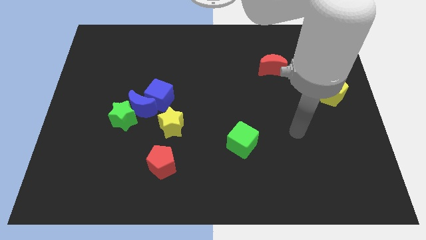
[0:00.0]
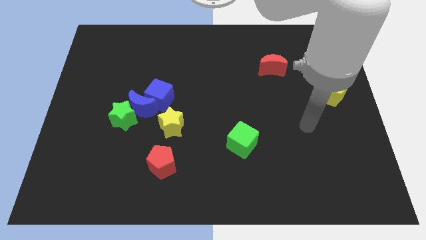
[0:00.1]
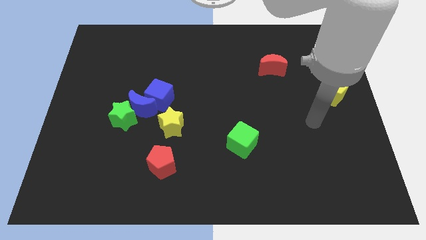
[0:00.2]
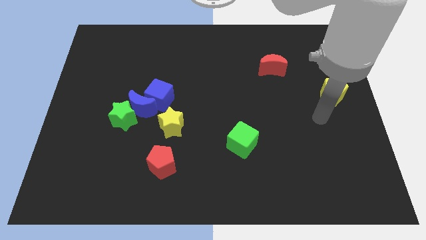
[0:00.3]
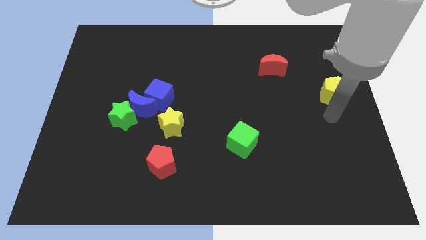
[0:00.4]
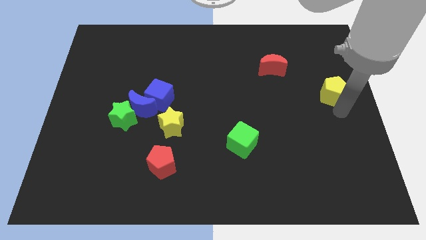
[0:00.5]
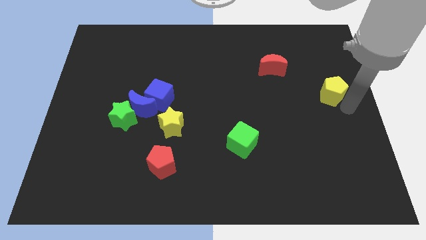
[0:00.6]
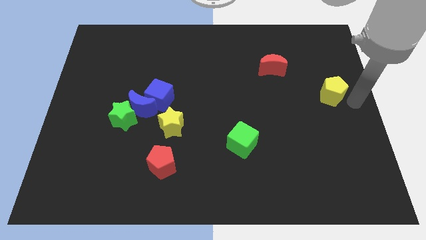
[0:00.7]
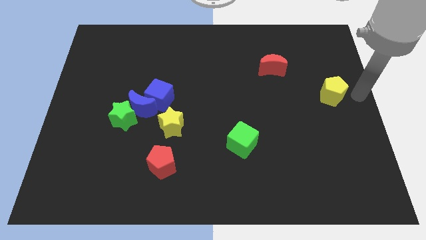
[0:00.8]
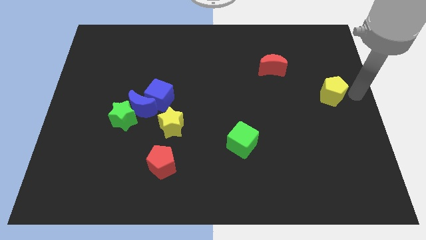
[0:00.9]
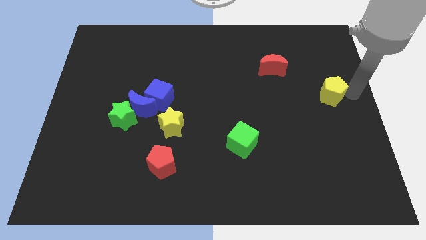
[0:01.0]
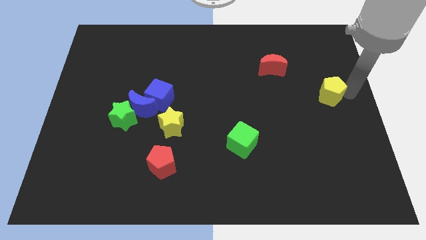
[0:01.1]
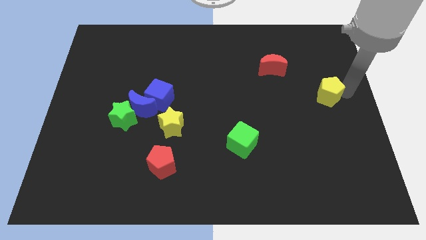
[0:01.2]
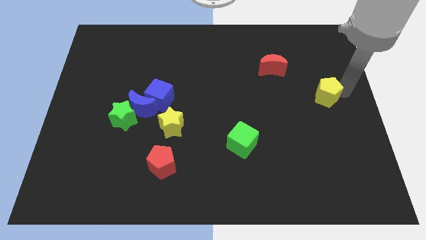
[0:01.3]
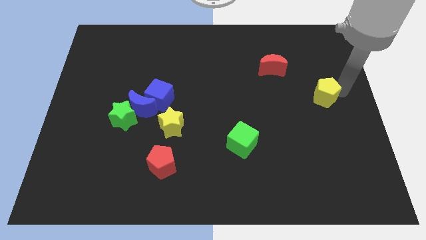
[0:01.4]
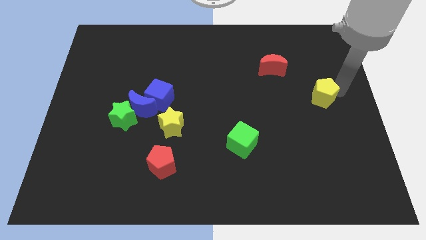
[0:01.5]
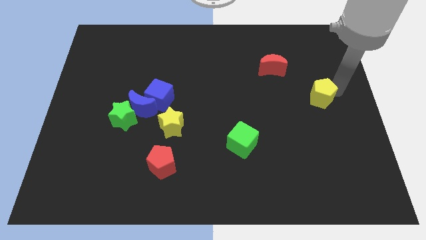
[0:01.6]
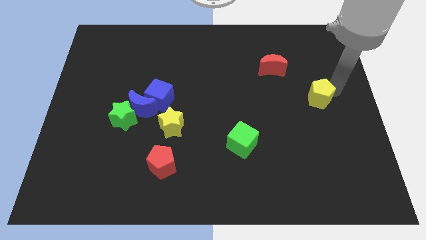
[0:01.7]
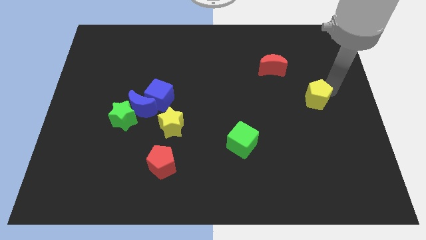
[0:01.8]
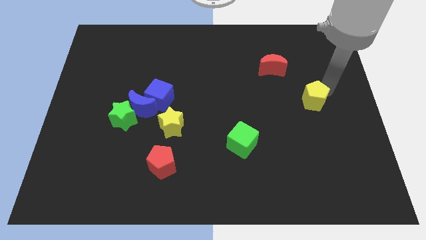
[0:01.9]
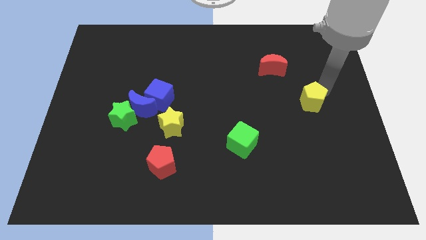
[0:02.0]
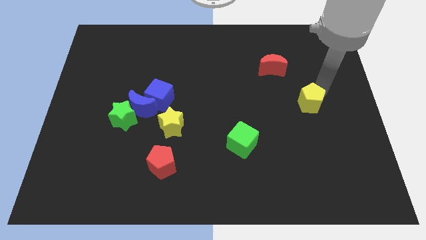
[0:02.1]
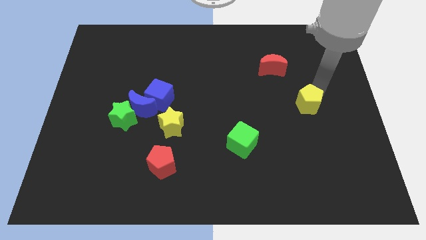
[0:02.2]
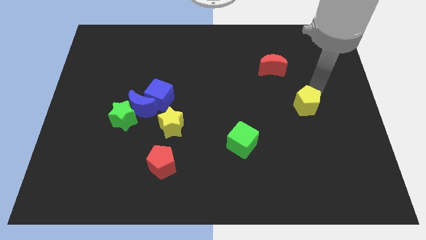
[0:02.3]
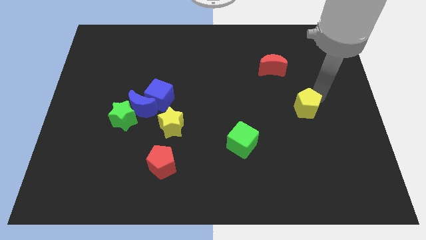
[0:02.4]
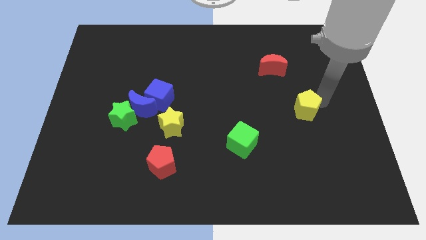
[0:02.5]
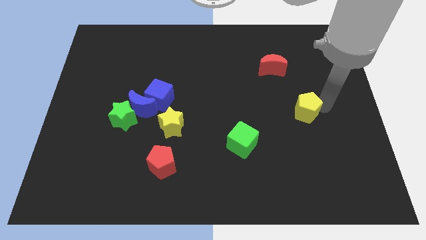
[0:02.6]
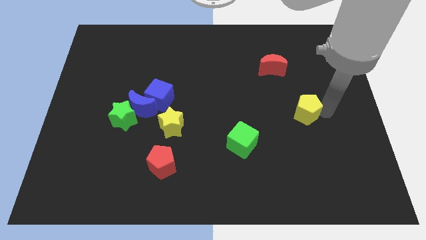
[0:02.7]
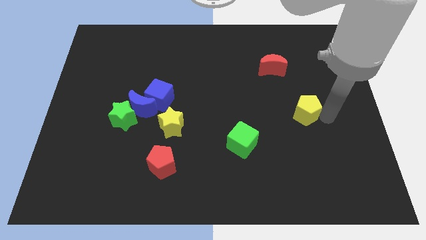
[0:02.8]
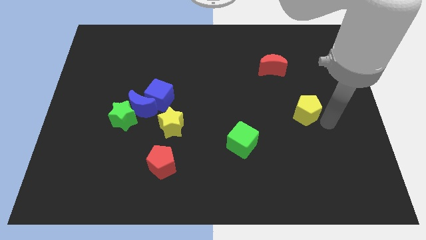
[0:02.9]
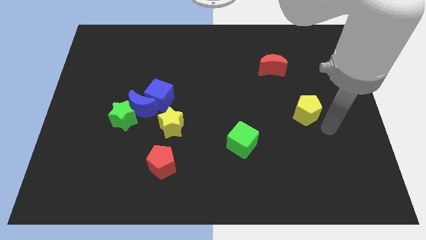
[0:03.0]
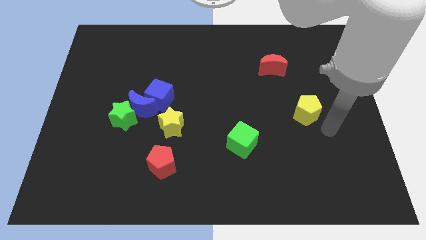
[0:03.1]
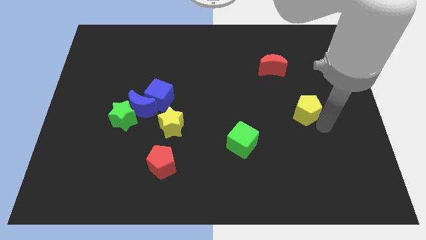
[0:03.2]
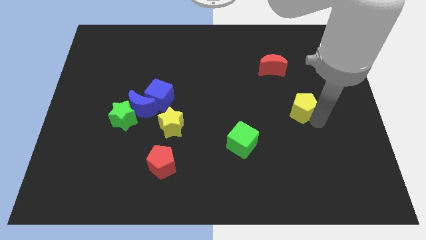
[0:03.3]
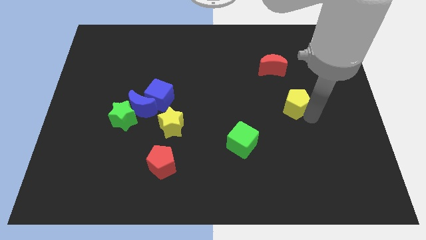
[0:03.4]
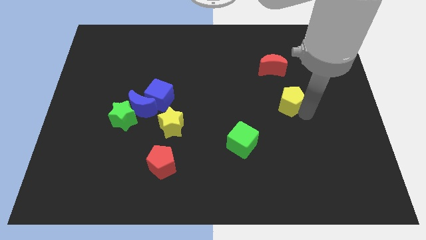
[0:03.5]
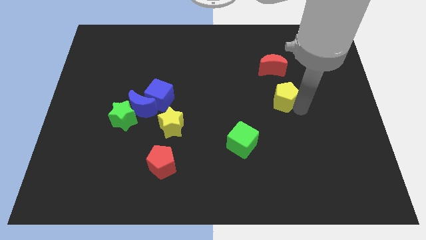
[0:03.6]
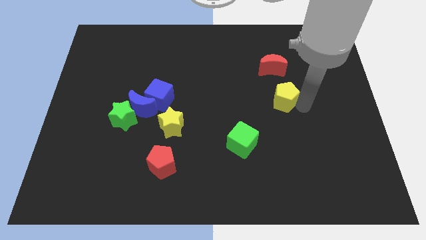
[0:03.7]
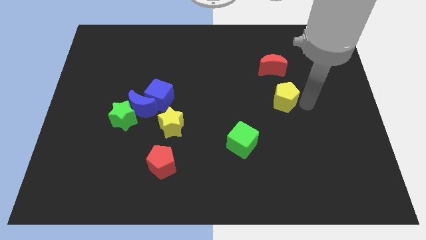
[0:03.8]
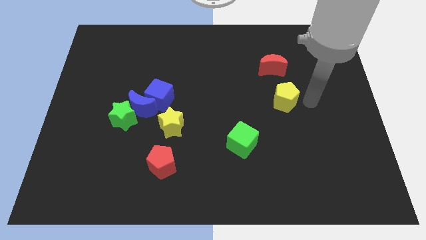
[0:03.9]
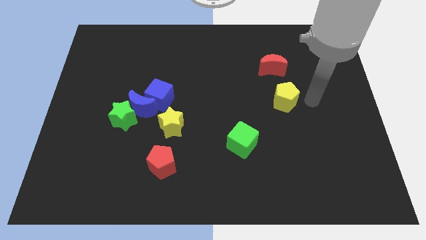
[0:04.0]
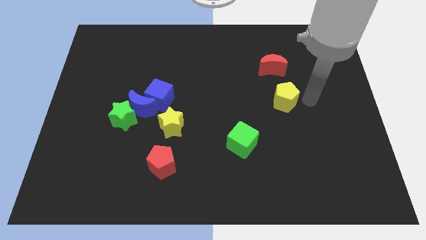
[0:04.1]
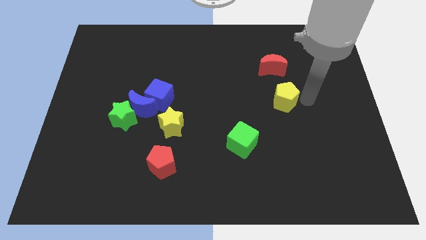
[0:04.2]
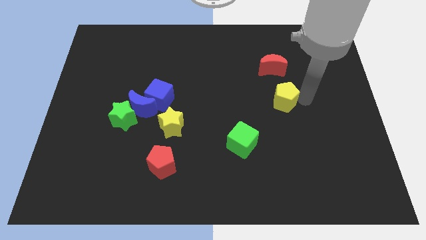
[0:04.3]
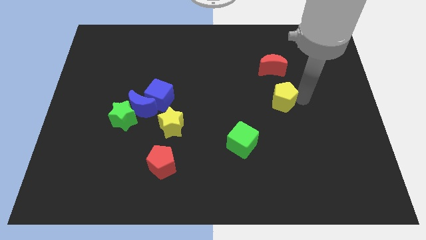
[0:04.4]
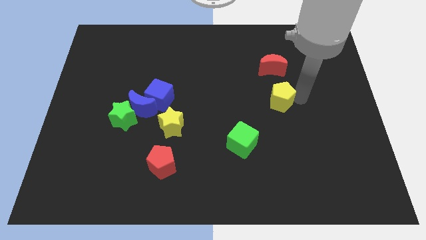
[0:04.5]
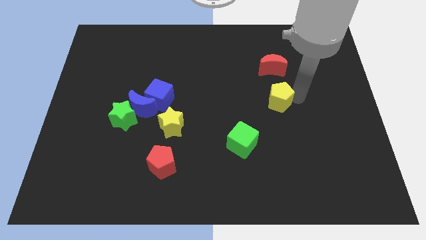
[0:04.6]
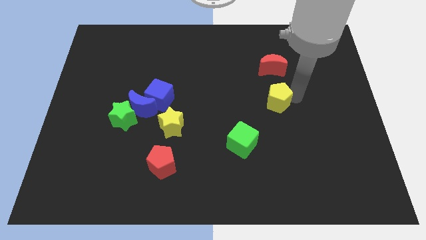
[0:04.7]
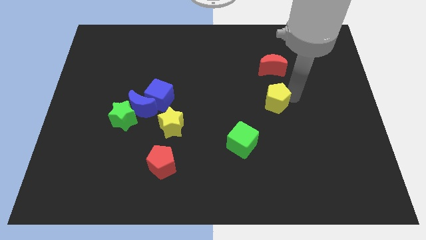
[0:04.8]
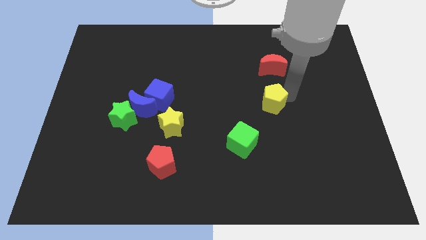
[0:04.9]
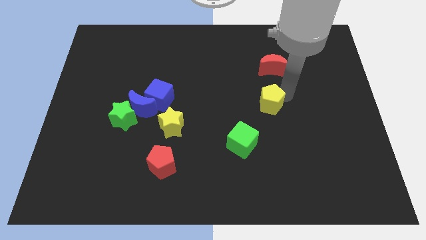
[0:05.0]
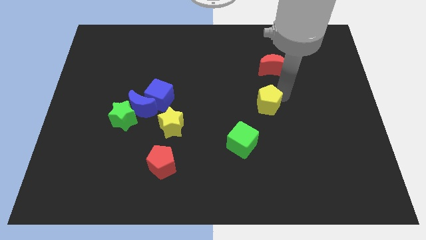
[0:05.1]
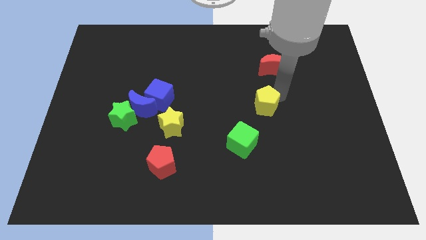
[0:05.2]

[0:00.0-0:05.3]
slide the yellow pentagon to the center of the board

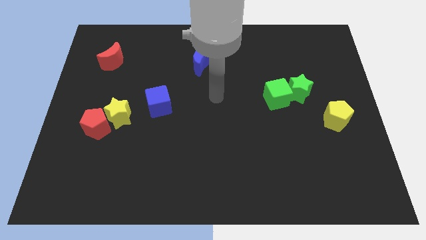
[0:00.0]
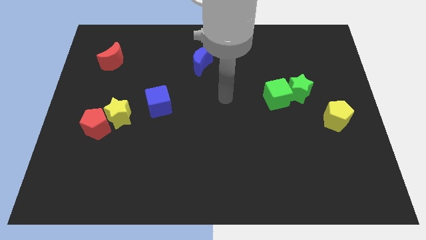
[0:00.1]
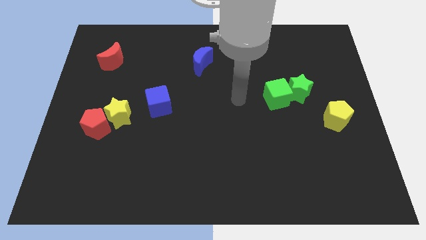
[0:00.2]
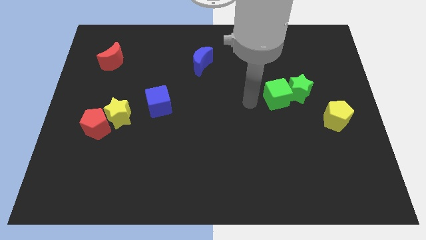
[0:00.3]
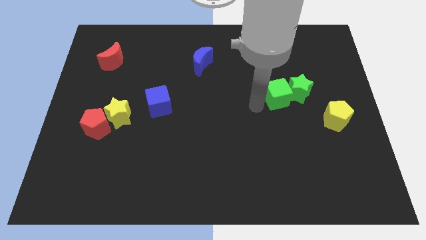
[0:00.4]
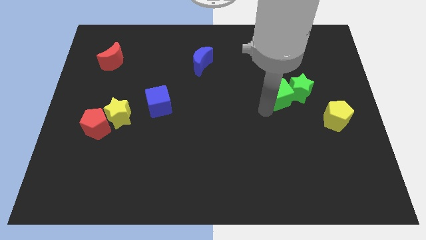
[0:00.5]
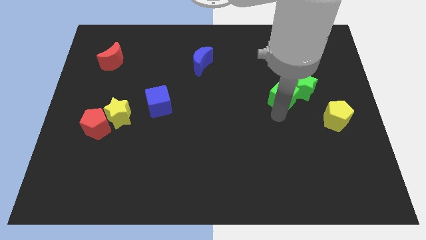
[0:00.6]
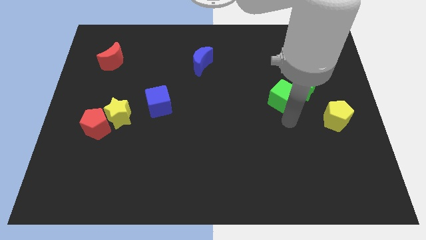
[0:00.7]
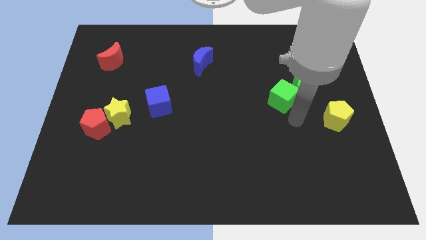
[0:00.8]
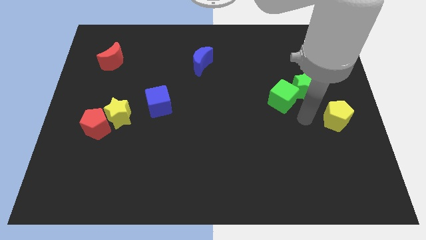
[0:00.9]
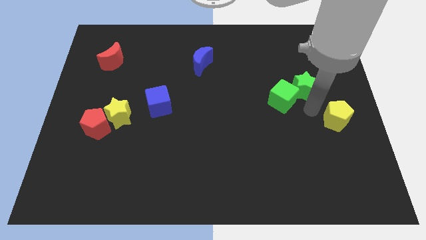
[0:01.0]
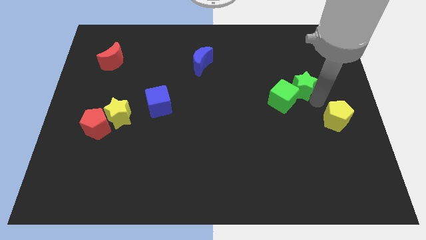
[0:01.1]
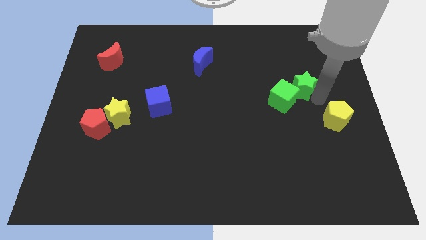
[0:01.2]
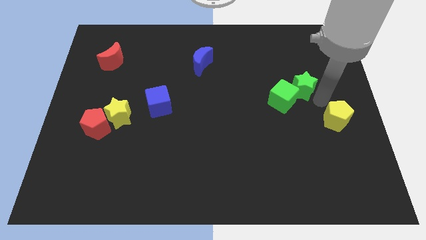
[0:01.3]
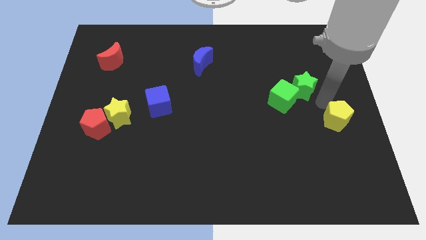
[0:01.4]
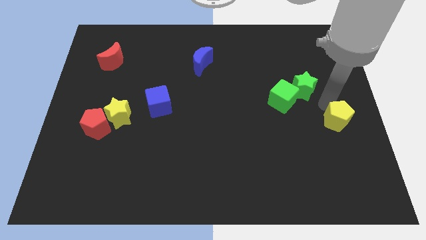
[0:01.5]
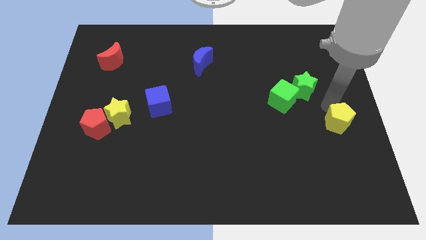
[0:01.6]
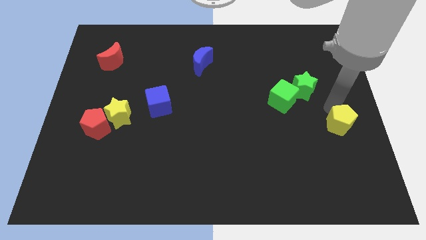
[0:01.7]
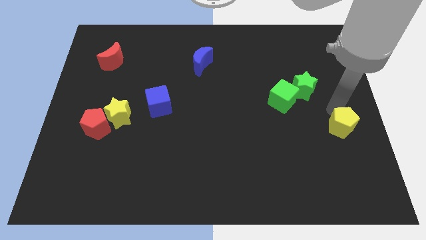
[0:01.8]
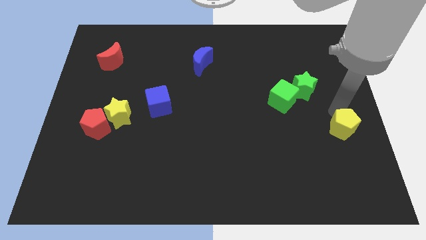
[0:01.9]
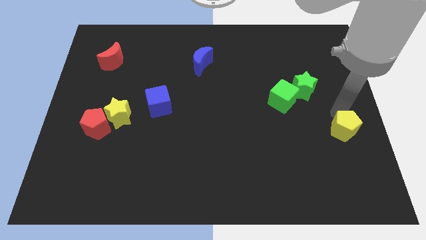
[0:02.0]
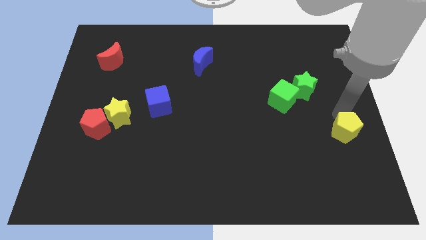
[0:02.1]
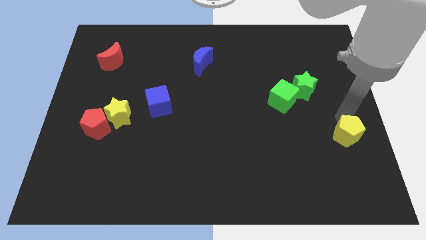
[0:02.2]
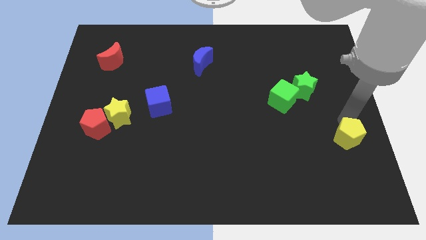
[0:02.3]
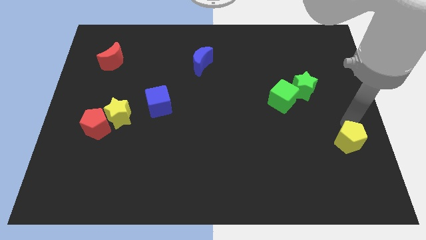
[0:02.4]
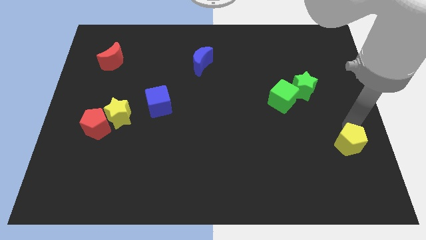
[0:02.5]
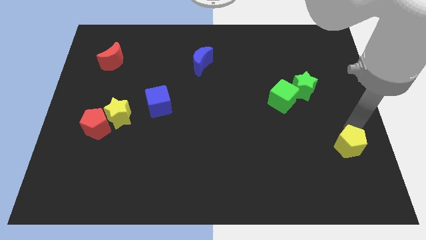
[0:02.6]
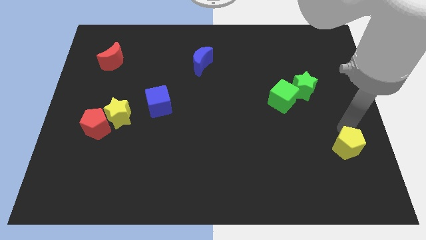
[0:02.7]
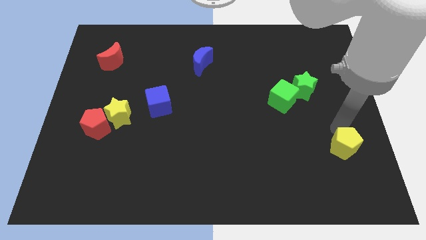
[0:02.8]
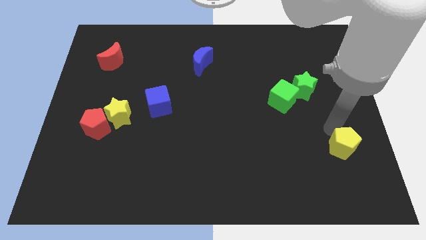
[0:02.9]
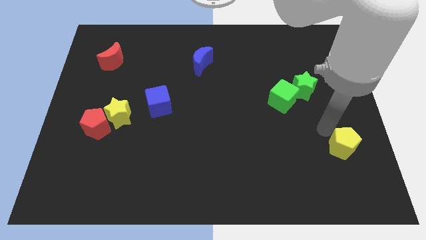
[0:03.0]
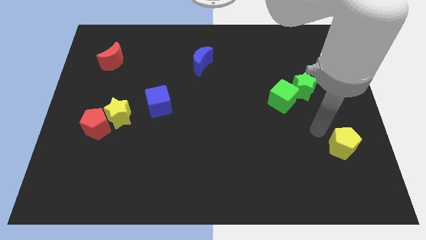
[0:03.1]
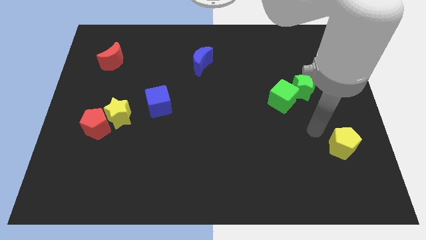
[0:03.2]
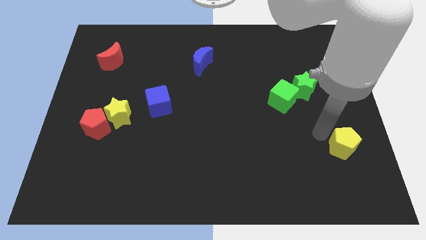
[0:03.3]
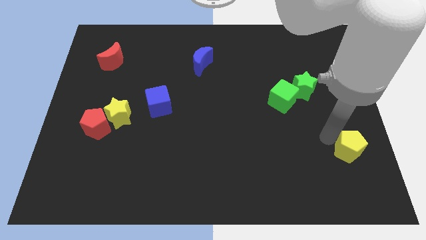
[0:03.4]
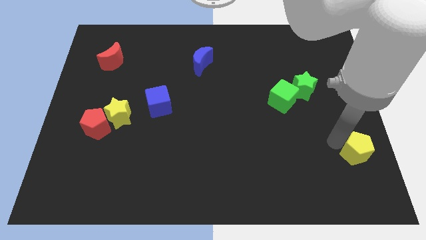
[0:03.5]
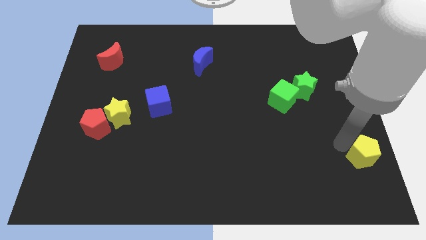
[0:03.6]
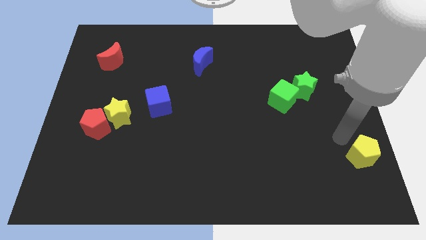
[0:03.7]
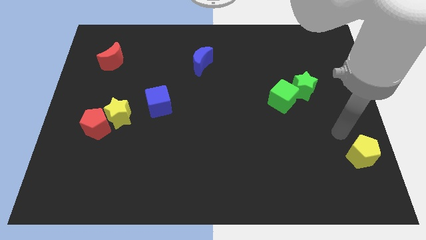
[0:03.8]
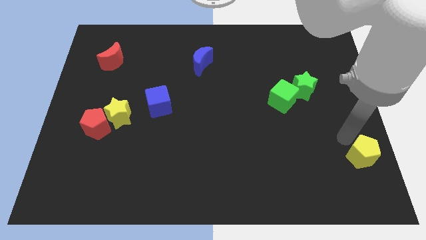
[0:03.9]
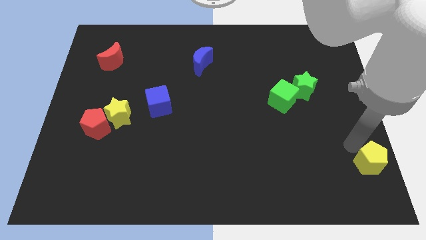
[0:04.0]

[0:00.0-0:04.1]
put the yellow pentagon to the bottom right corner
